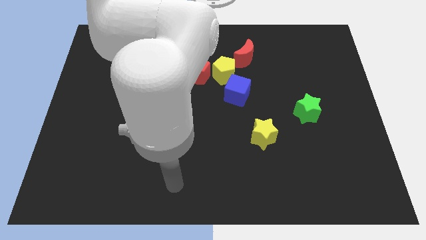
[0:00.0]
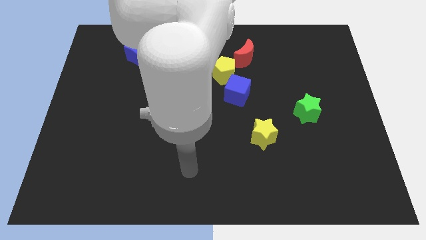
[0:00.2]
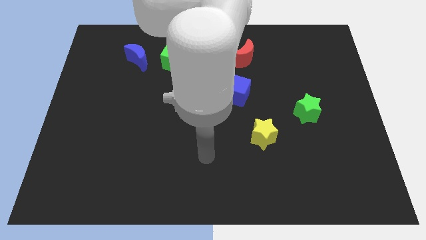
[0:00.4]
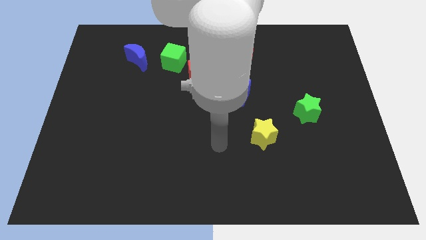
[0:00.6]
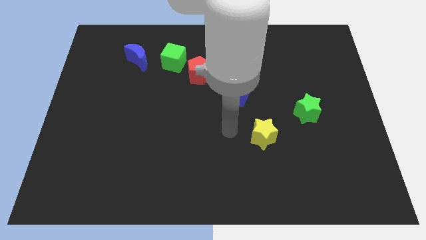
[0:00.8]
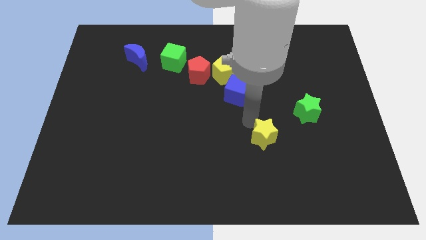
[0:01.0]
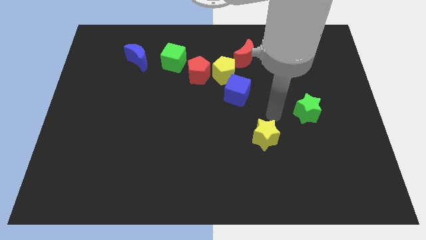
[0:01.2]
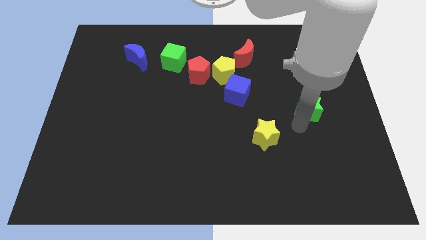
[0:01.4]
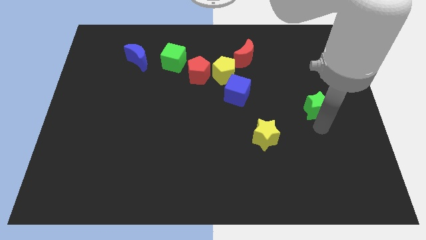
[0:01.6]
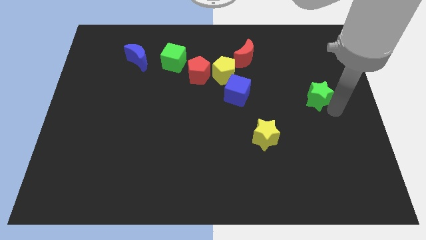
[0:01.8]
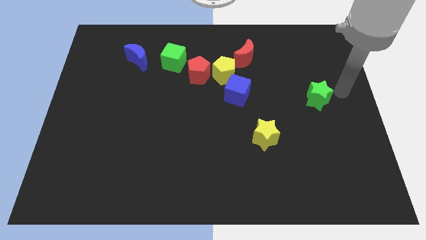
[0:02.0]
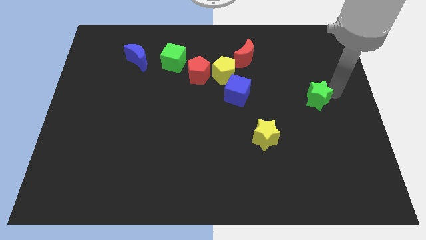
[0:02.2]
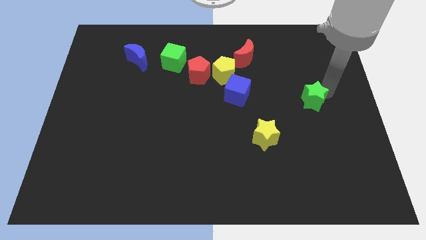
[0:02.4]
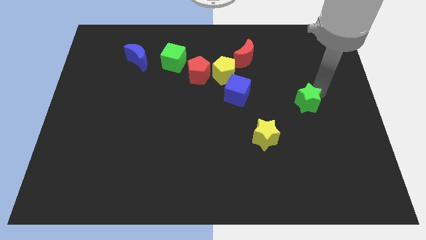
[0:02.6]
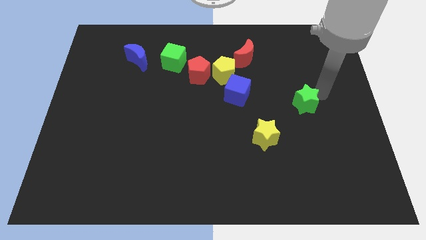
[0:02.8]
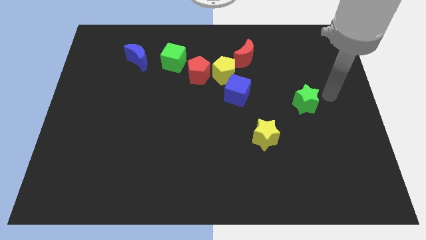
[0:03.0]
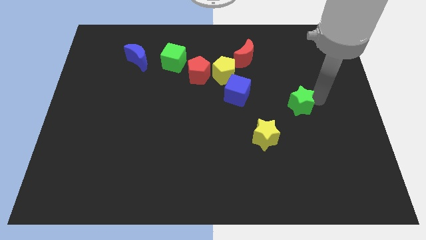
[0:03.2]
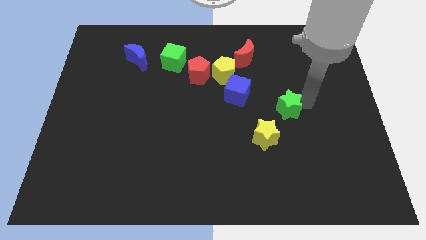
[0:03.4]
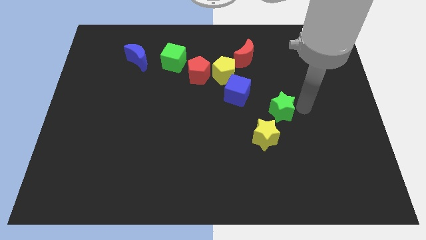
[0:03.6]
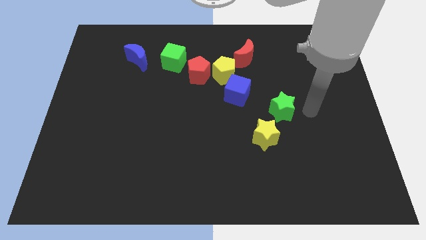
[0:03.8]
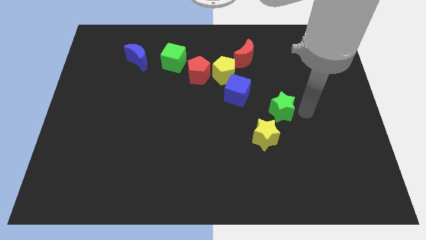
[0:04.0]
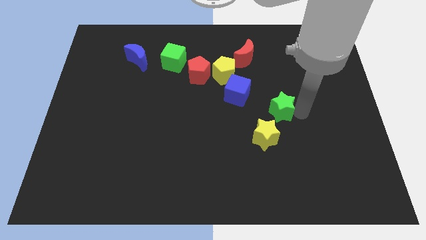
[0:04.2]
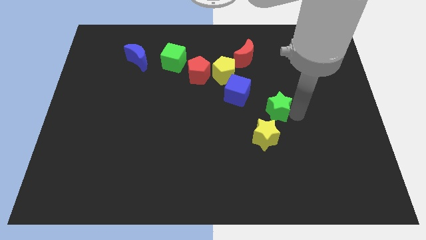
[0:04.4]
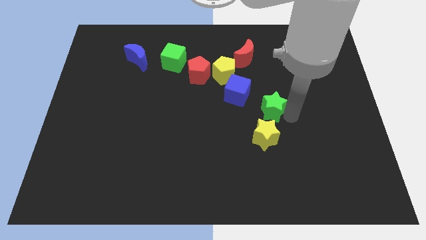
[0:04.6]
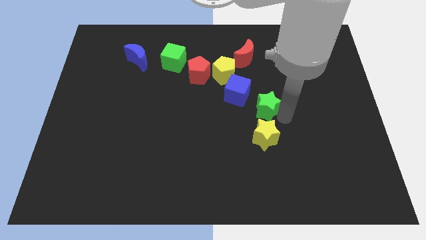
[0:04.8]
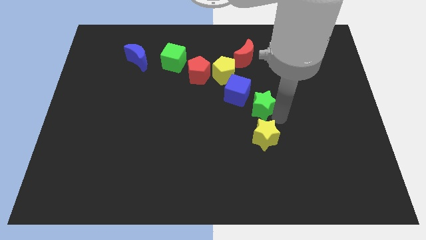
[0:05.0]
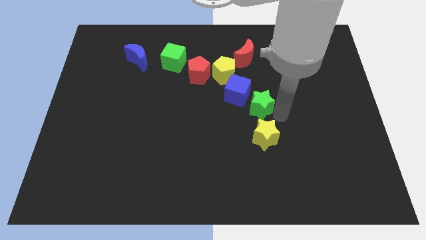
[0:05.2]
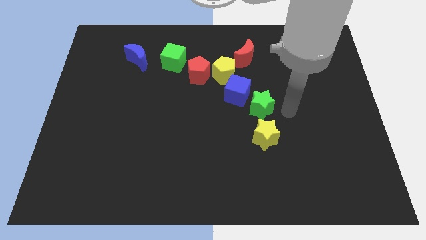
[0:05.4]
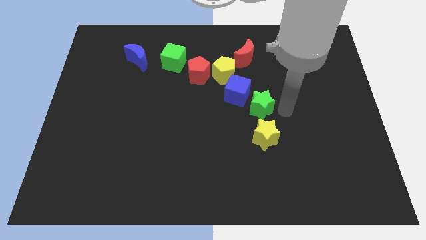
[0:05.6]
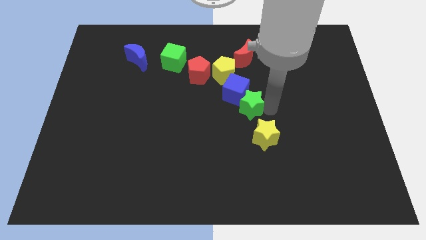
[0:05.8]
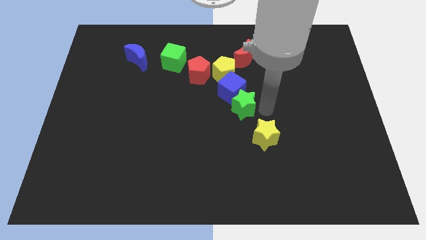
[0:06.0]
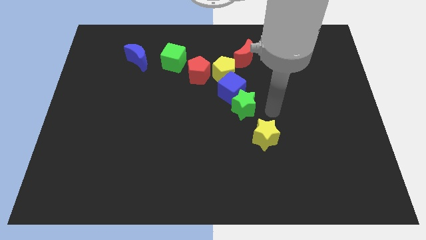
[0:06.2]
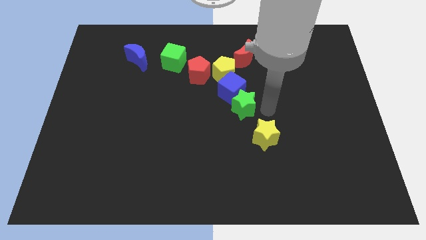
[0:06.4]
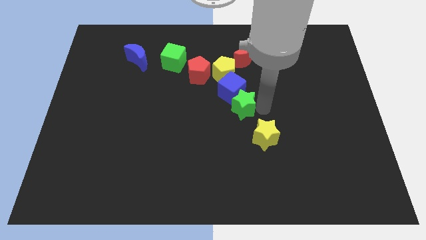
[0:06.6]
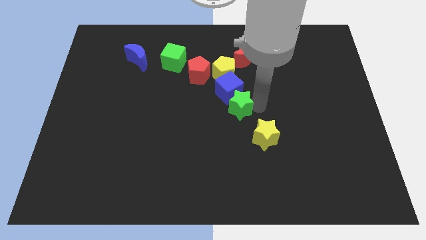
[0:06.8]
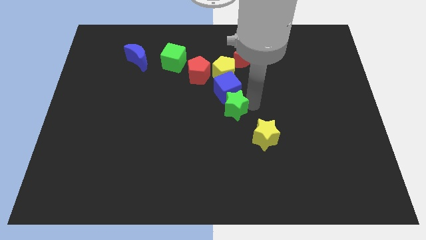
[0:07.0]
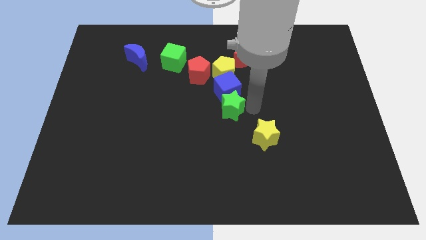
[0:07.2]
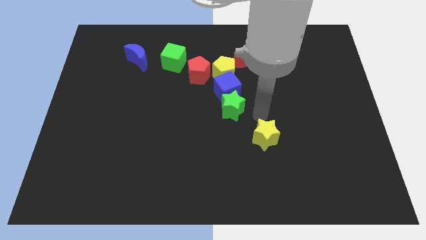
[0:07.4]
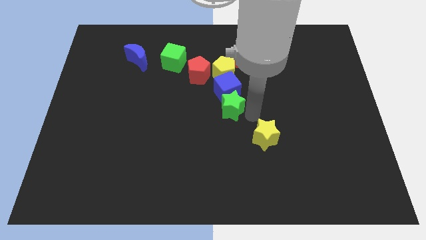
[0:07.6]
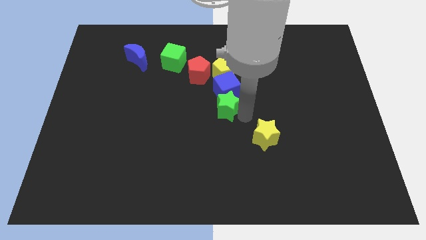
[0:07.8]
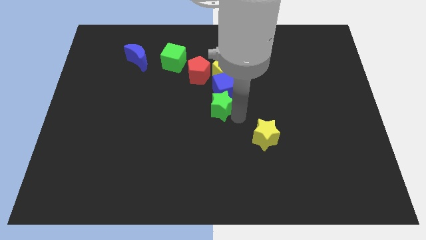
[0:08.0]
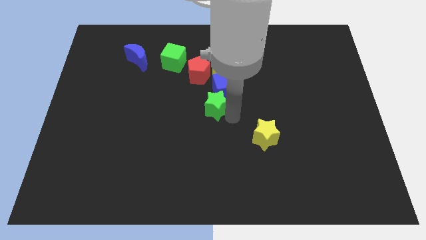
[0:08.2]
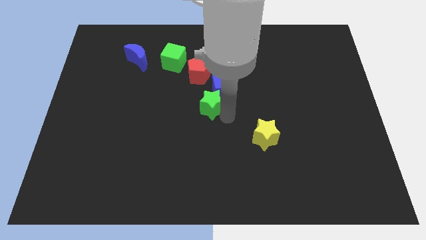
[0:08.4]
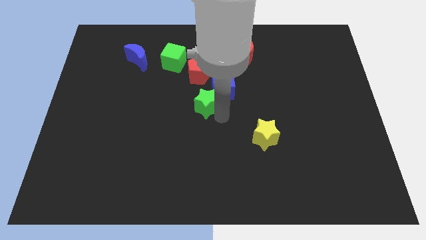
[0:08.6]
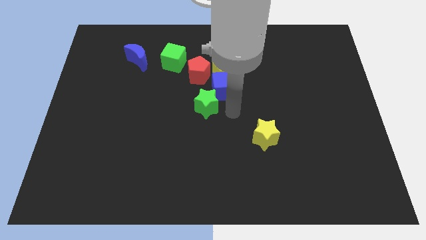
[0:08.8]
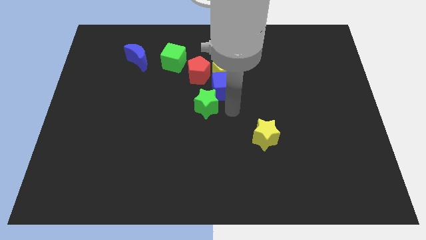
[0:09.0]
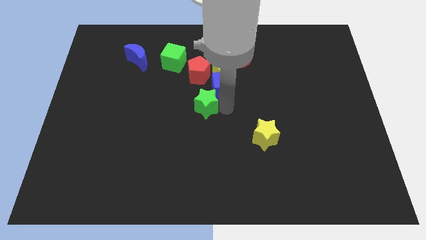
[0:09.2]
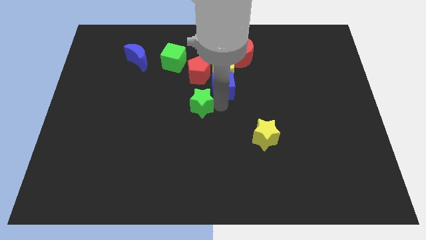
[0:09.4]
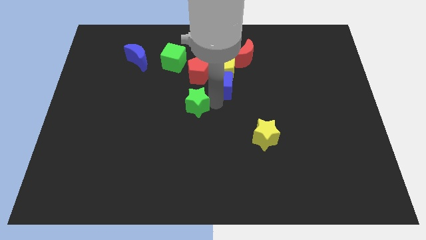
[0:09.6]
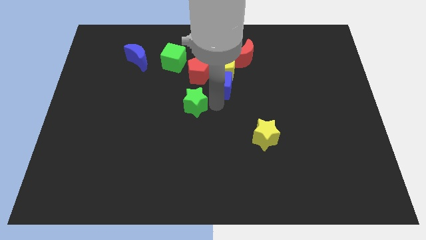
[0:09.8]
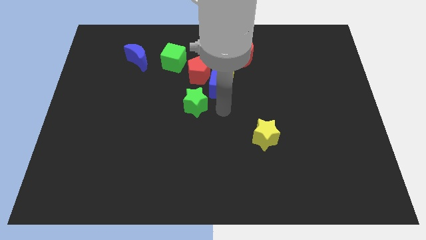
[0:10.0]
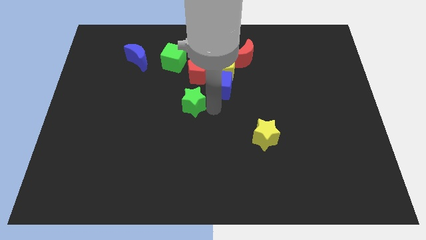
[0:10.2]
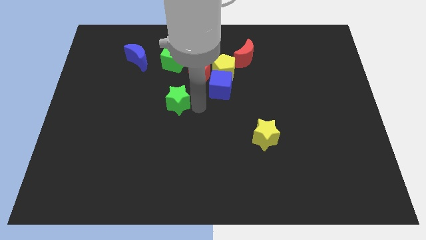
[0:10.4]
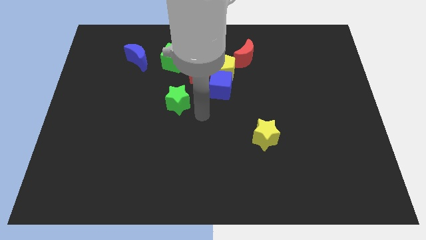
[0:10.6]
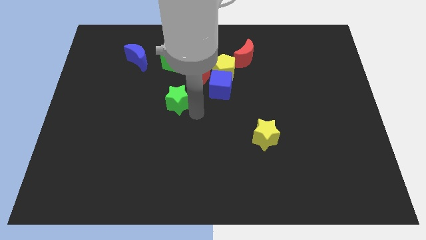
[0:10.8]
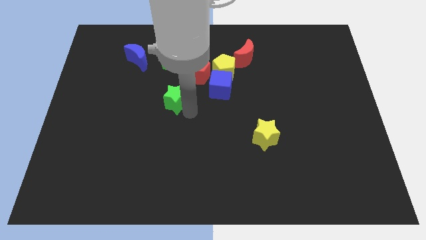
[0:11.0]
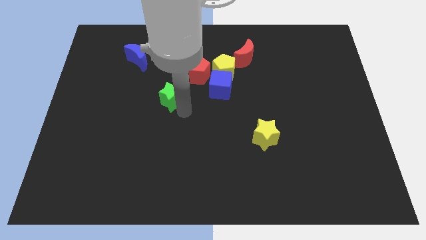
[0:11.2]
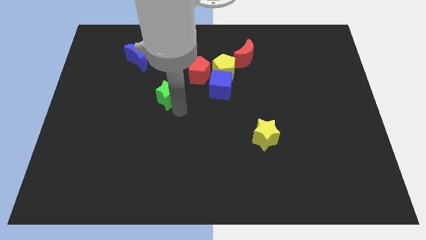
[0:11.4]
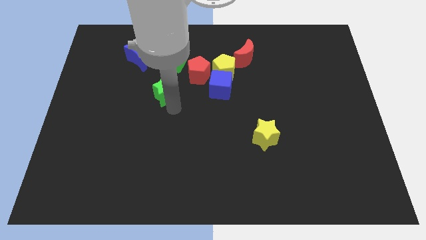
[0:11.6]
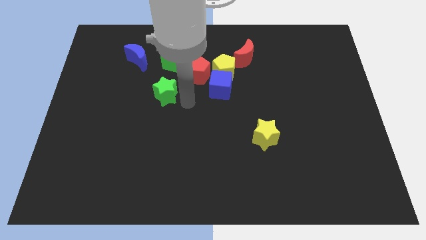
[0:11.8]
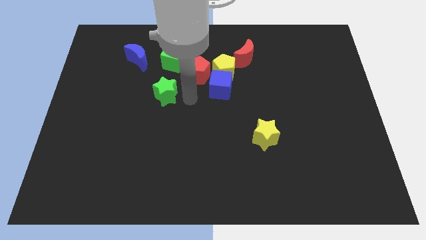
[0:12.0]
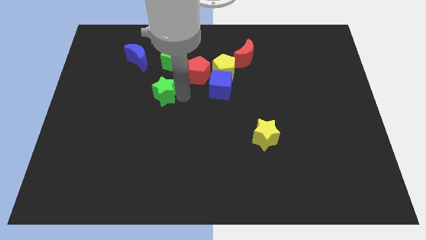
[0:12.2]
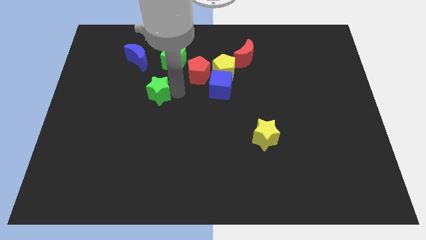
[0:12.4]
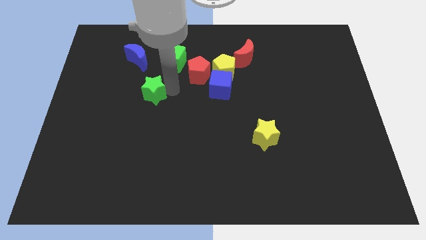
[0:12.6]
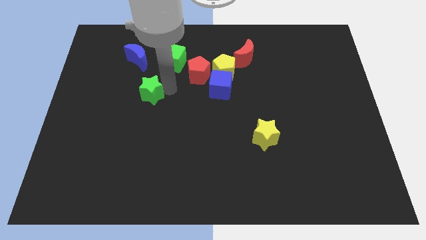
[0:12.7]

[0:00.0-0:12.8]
push the green star below the blue moon

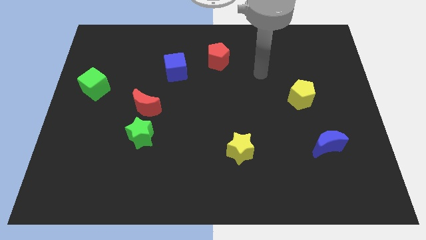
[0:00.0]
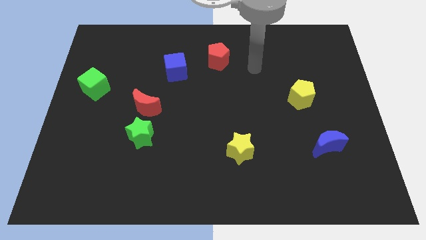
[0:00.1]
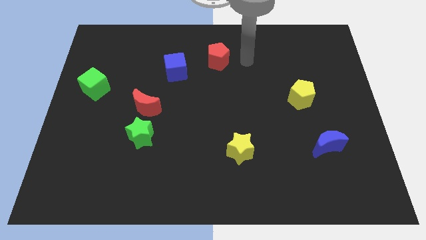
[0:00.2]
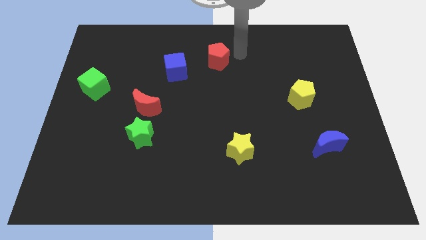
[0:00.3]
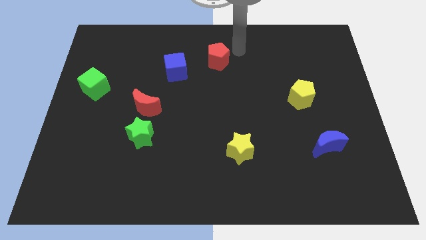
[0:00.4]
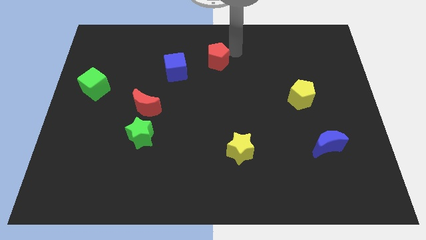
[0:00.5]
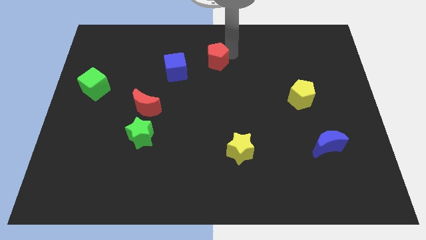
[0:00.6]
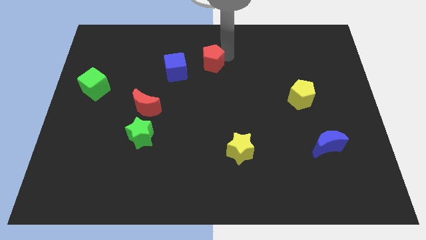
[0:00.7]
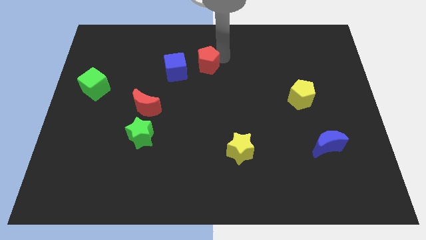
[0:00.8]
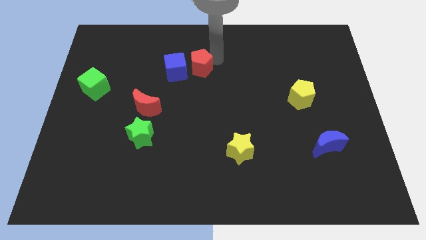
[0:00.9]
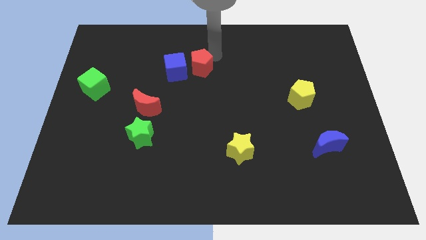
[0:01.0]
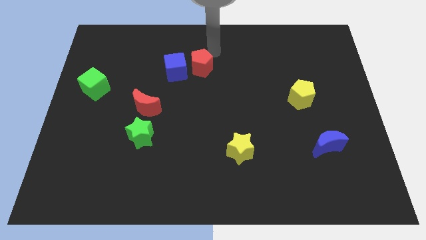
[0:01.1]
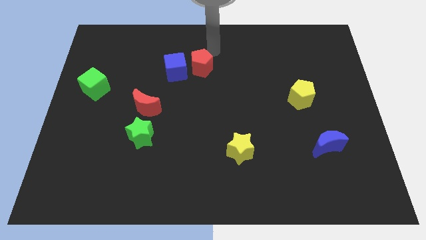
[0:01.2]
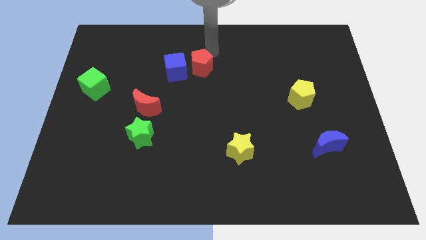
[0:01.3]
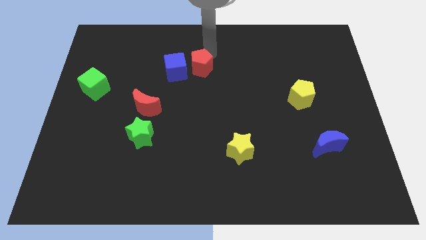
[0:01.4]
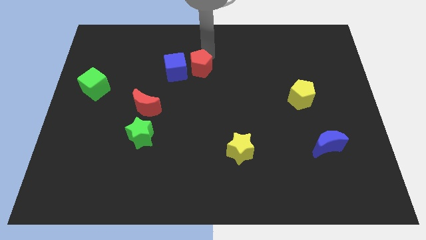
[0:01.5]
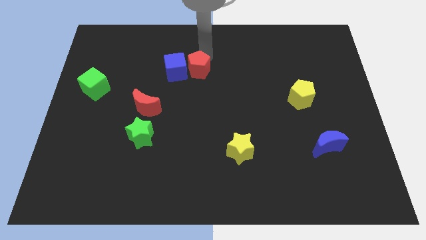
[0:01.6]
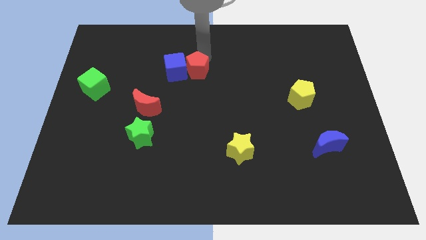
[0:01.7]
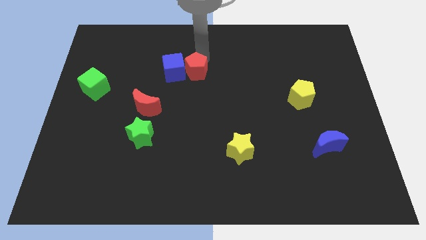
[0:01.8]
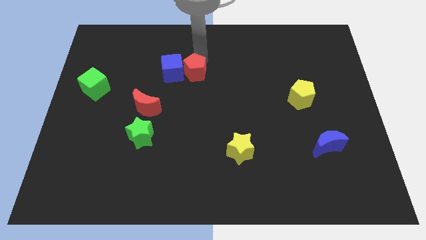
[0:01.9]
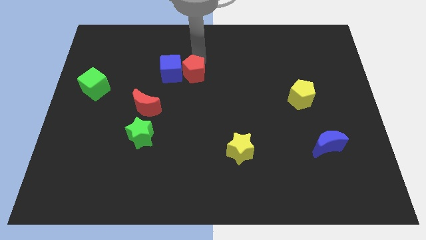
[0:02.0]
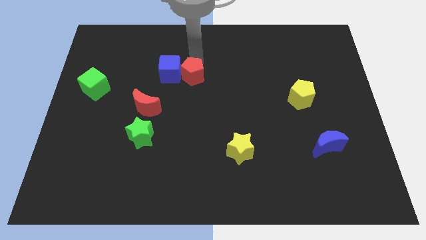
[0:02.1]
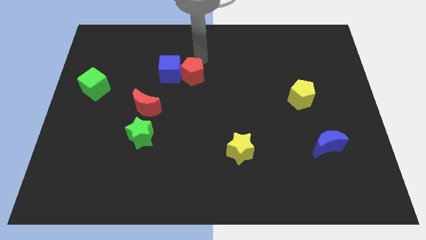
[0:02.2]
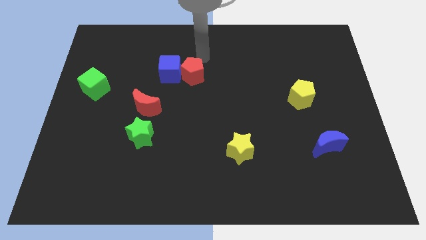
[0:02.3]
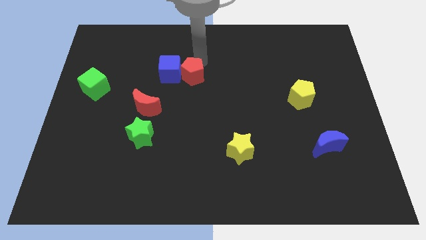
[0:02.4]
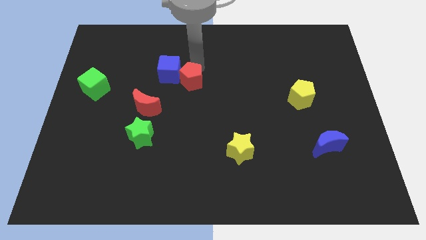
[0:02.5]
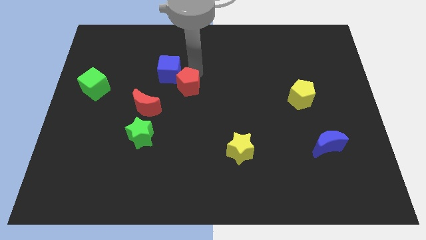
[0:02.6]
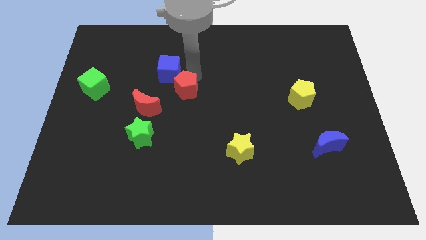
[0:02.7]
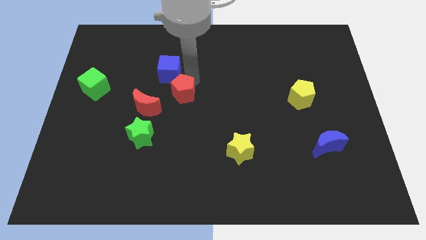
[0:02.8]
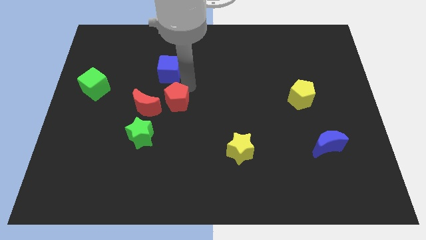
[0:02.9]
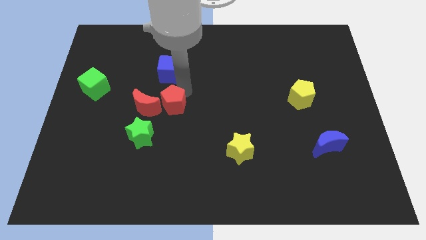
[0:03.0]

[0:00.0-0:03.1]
slide the red pentagon to the top right of the green star
